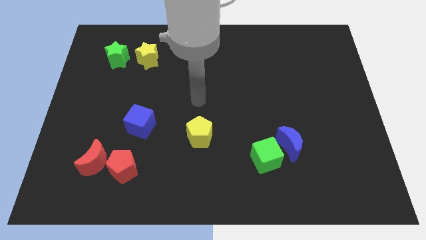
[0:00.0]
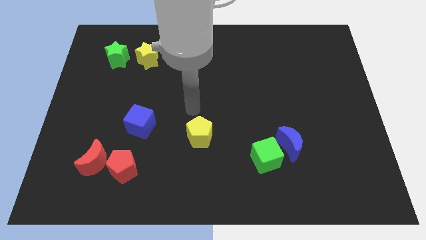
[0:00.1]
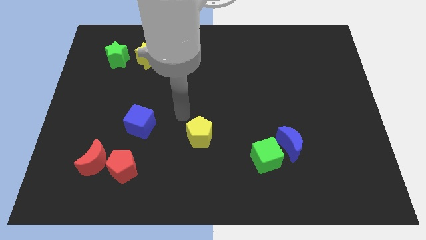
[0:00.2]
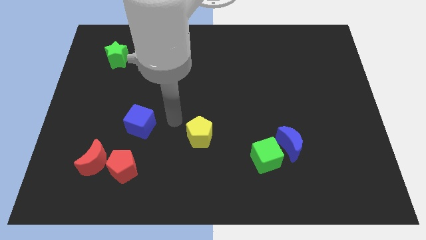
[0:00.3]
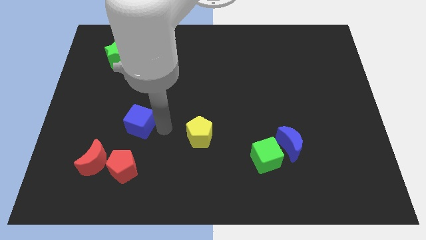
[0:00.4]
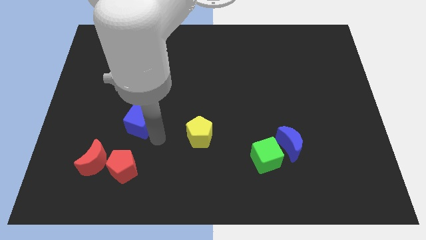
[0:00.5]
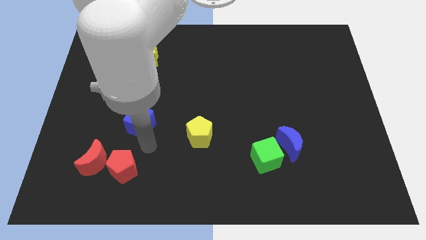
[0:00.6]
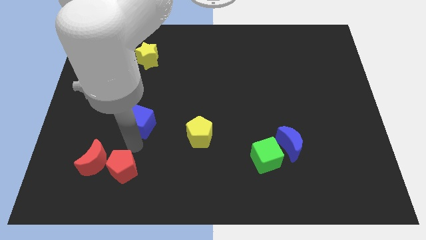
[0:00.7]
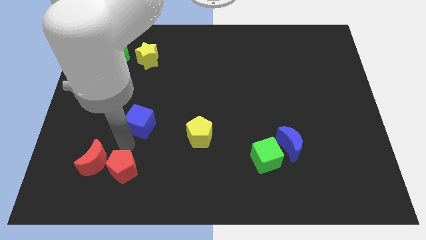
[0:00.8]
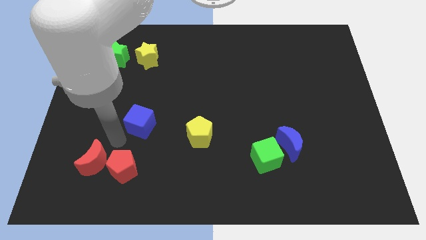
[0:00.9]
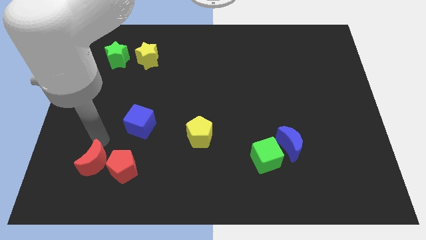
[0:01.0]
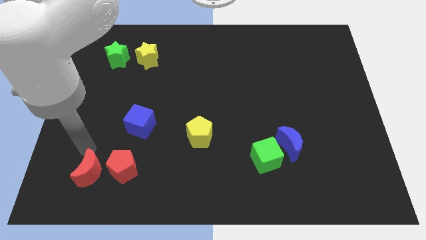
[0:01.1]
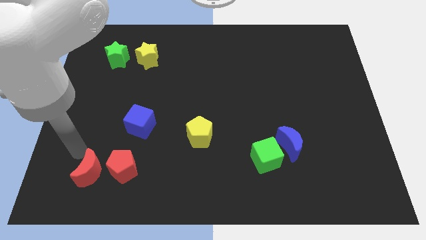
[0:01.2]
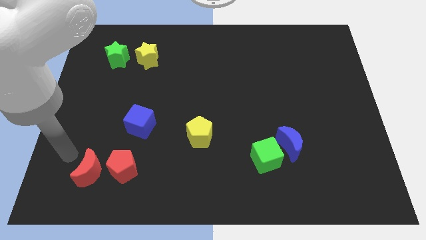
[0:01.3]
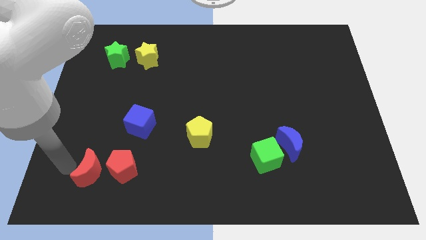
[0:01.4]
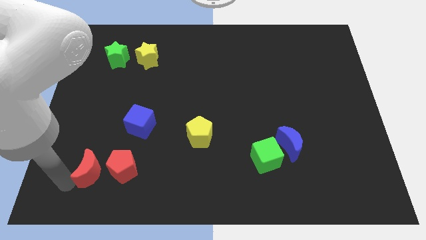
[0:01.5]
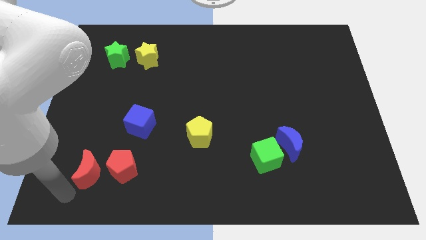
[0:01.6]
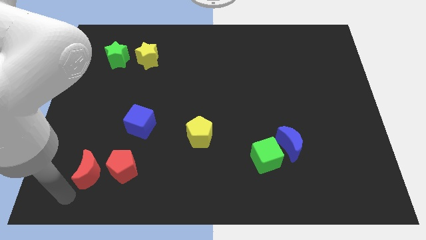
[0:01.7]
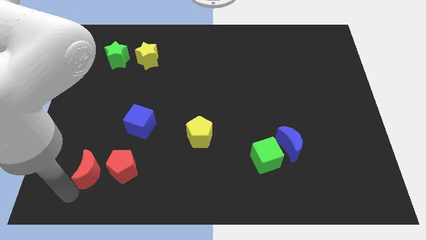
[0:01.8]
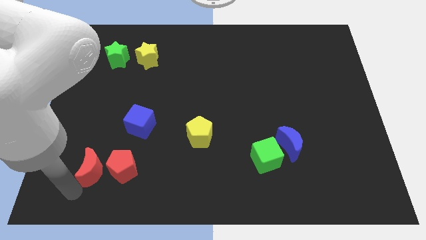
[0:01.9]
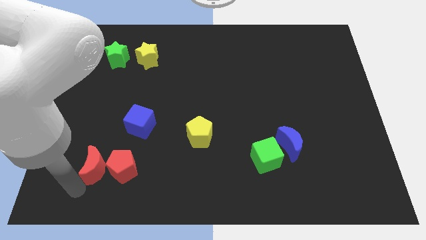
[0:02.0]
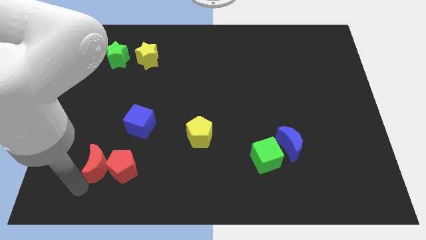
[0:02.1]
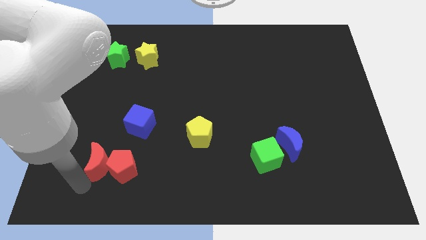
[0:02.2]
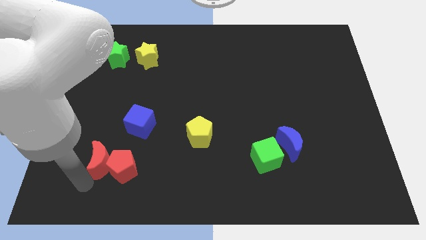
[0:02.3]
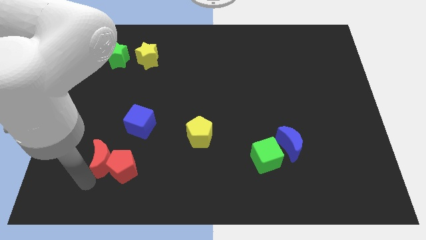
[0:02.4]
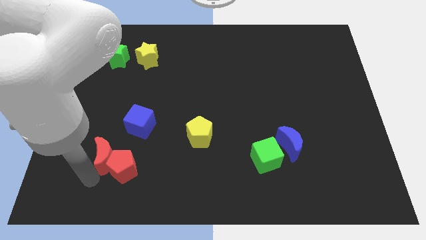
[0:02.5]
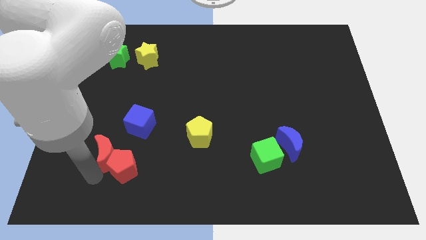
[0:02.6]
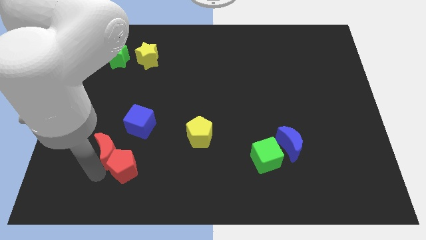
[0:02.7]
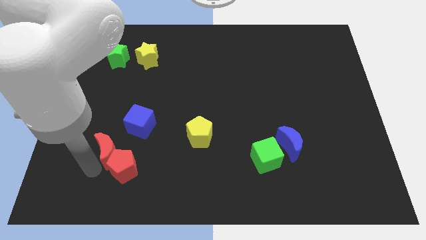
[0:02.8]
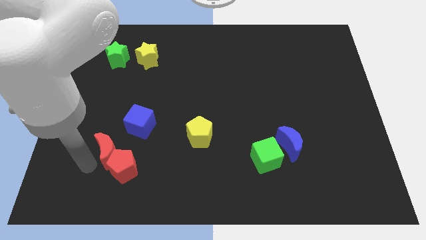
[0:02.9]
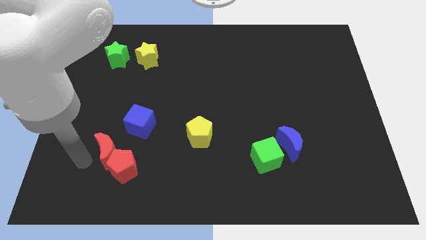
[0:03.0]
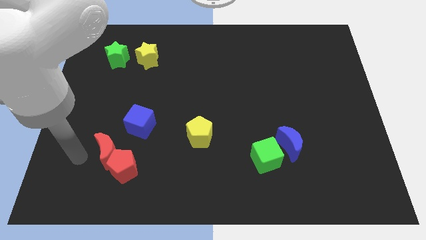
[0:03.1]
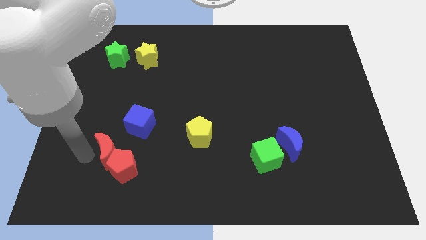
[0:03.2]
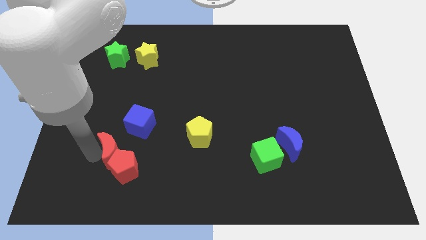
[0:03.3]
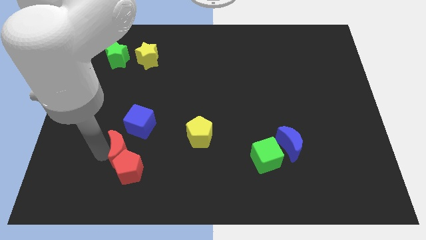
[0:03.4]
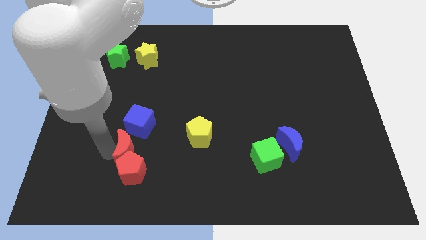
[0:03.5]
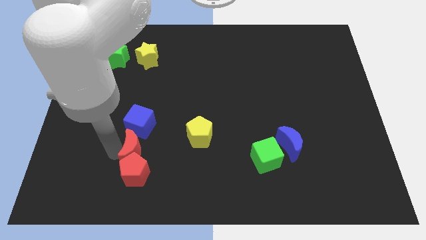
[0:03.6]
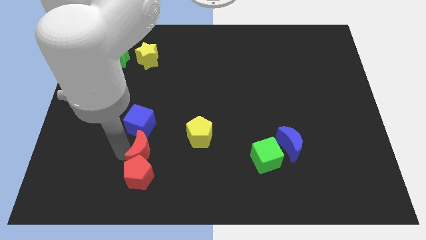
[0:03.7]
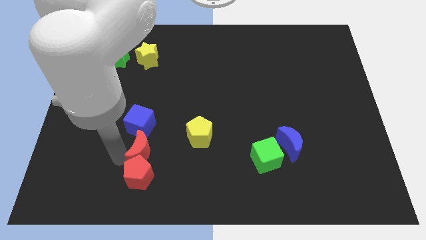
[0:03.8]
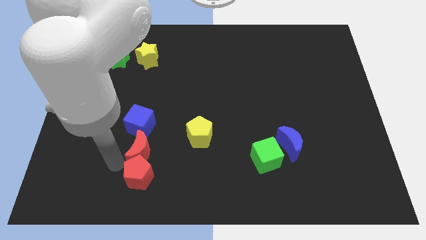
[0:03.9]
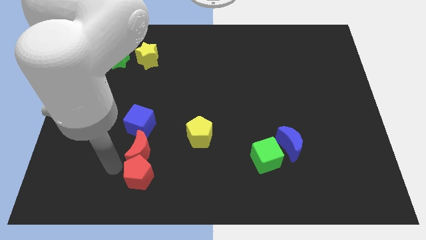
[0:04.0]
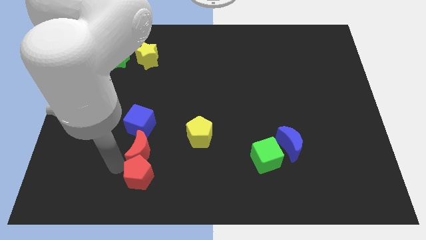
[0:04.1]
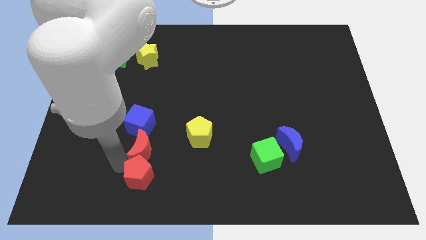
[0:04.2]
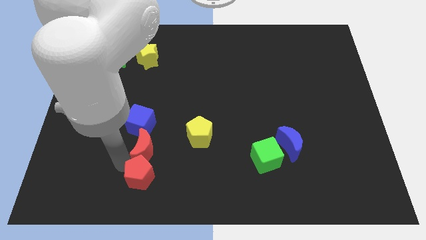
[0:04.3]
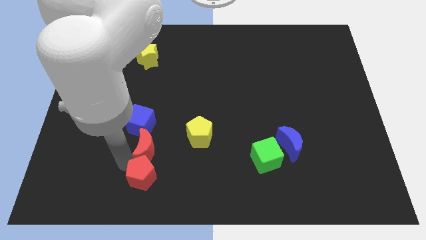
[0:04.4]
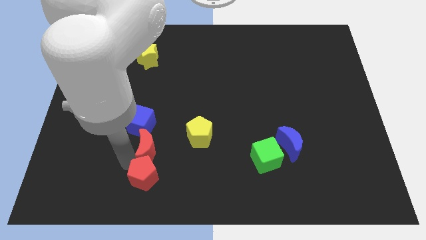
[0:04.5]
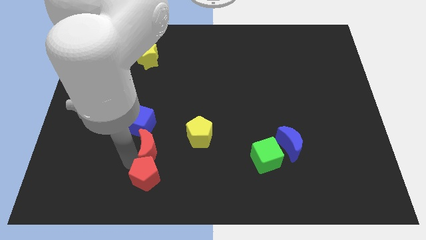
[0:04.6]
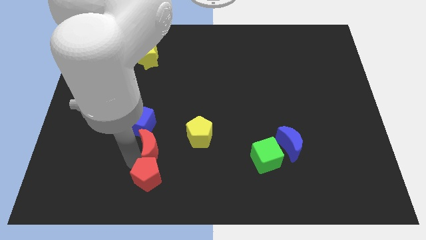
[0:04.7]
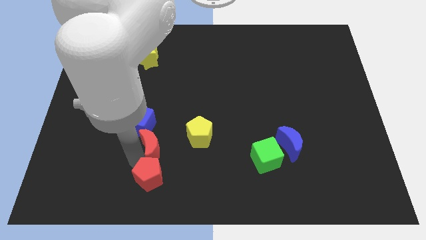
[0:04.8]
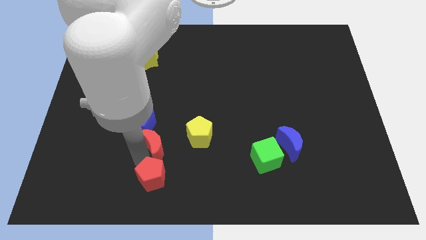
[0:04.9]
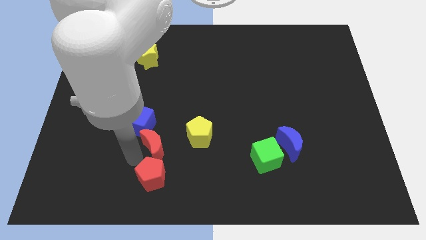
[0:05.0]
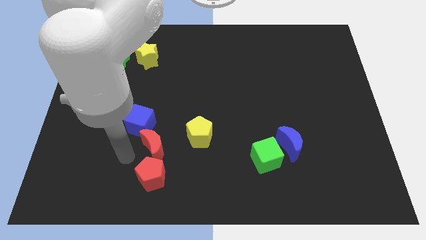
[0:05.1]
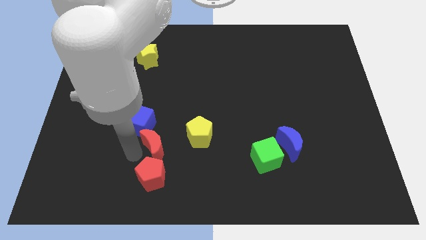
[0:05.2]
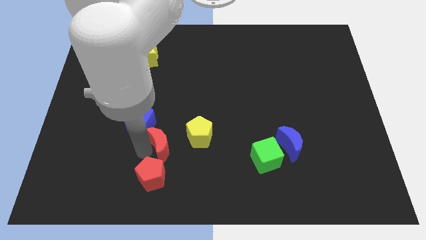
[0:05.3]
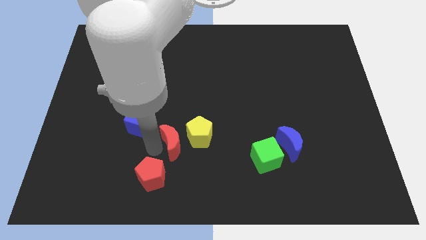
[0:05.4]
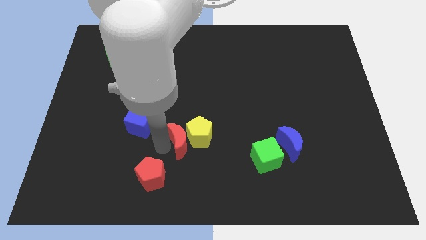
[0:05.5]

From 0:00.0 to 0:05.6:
push the red moon next to the yellow pentagon

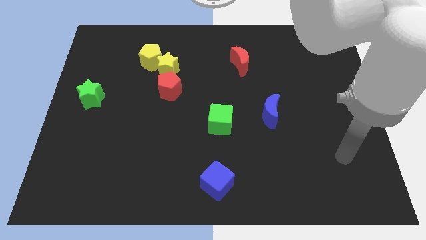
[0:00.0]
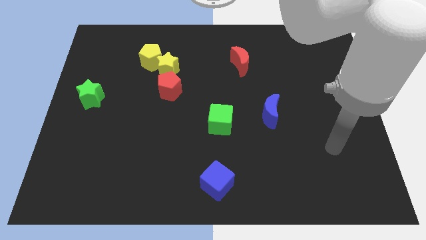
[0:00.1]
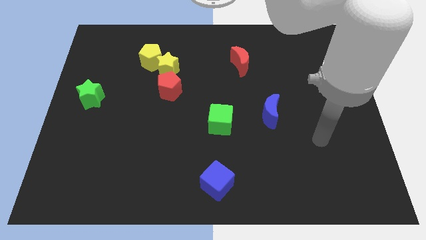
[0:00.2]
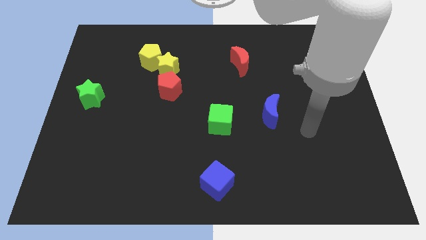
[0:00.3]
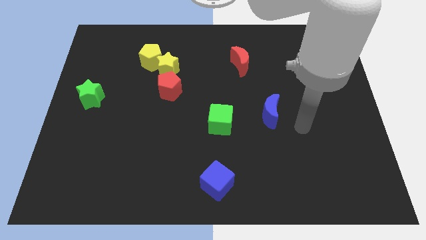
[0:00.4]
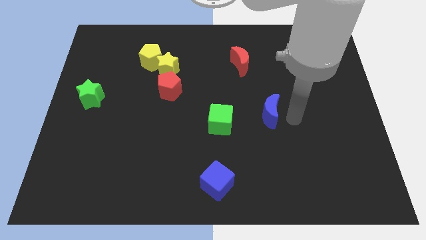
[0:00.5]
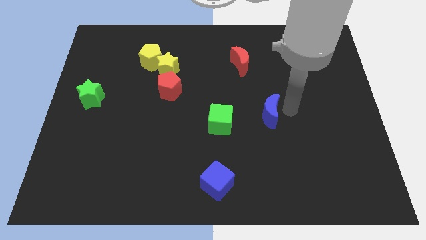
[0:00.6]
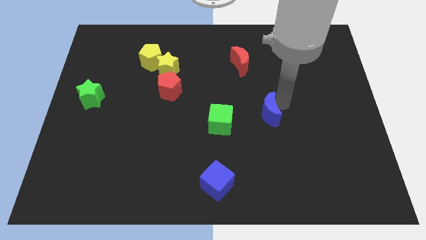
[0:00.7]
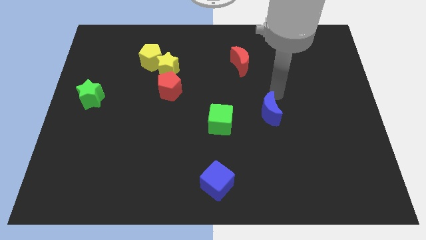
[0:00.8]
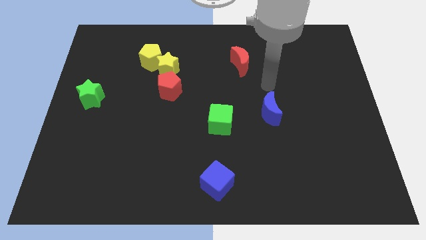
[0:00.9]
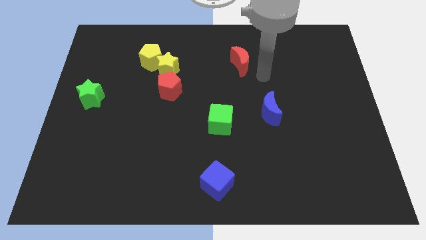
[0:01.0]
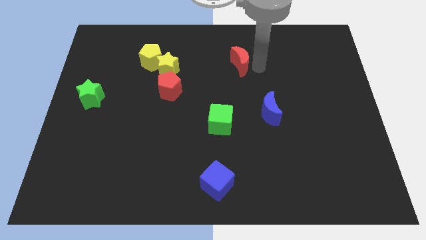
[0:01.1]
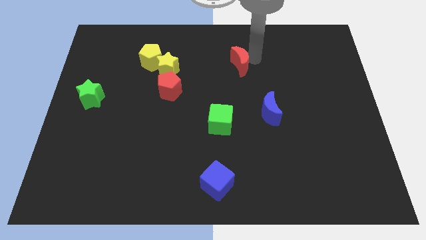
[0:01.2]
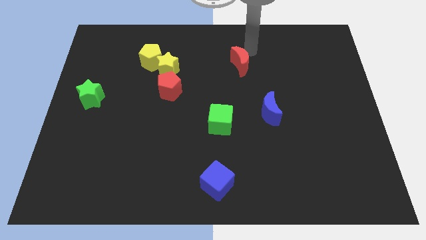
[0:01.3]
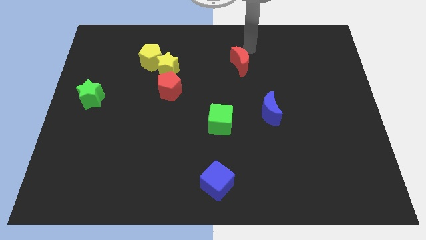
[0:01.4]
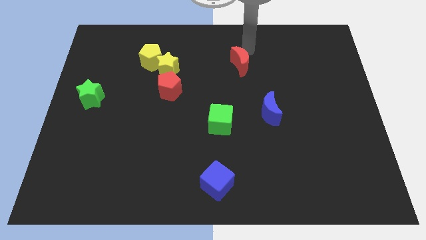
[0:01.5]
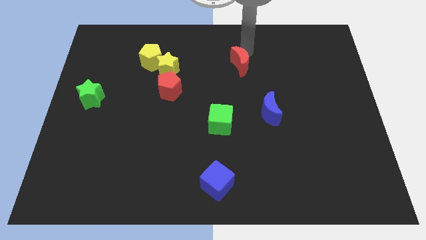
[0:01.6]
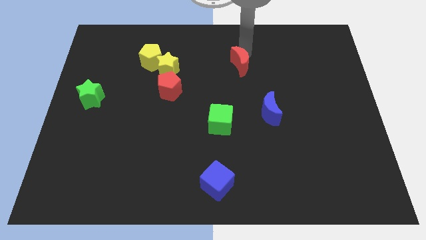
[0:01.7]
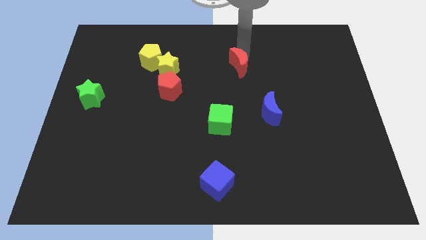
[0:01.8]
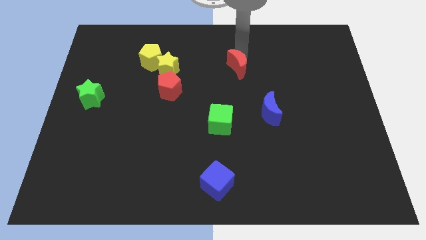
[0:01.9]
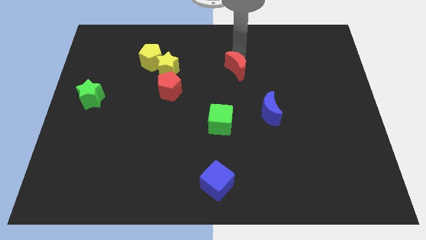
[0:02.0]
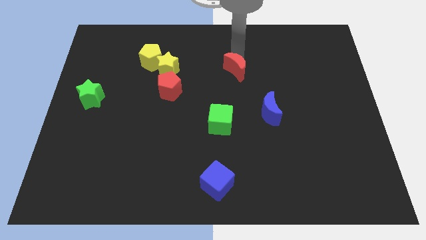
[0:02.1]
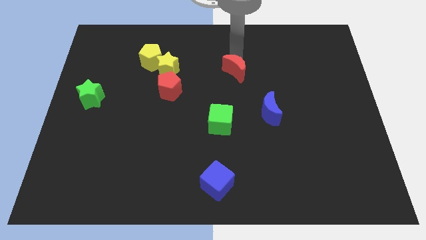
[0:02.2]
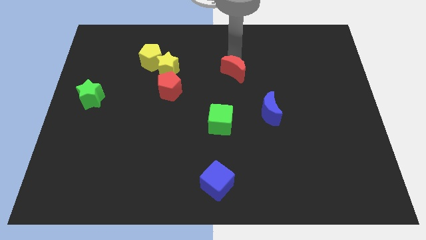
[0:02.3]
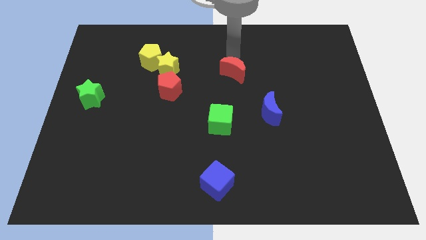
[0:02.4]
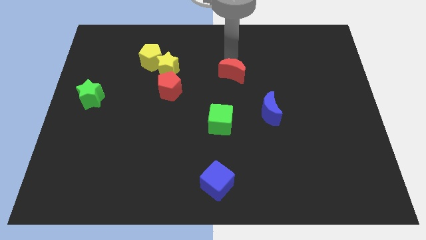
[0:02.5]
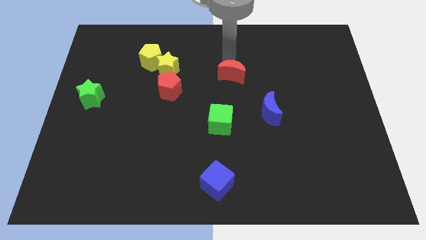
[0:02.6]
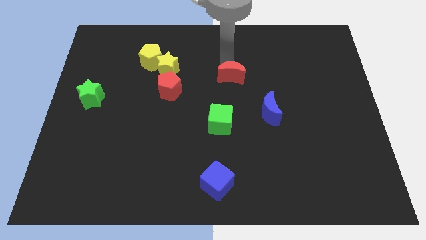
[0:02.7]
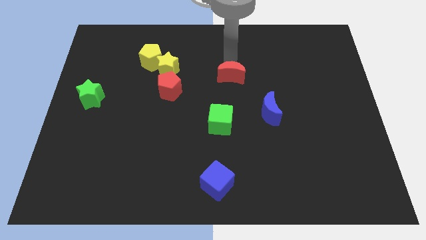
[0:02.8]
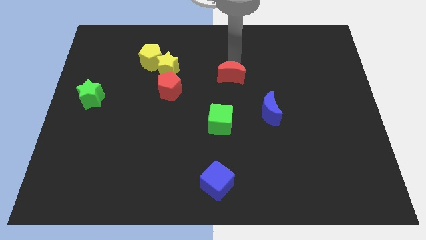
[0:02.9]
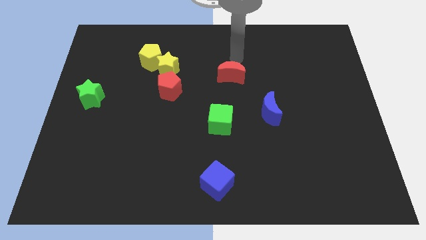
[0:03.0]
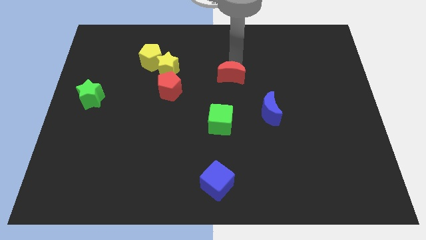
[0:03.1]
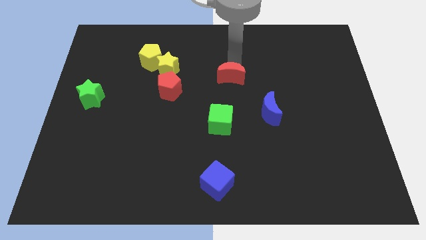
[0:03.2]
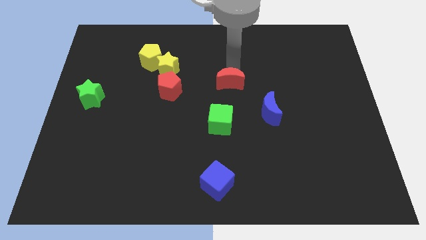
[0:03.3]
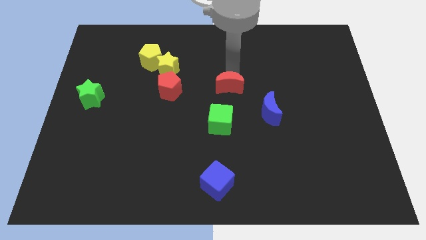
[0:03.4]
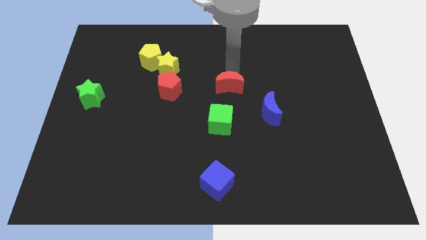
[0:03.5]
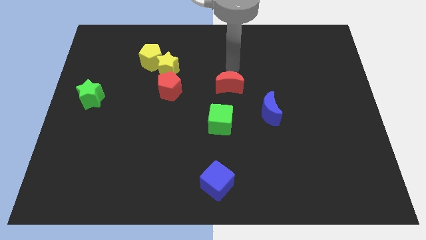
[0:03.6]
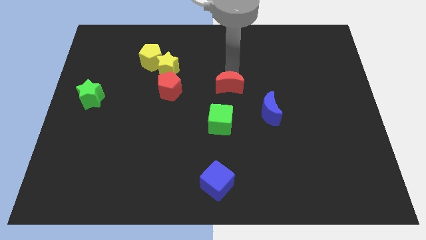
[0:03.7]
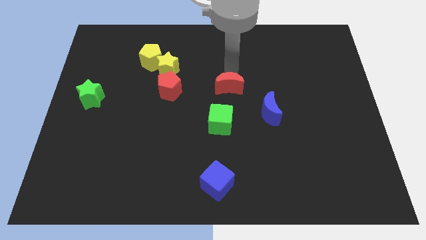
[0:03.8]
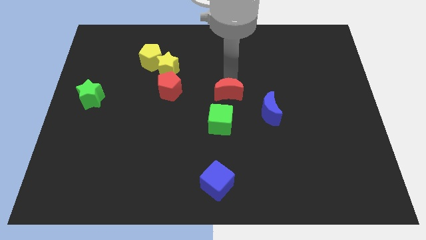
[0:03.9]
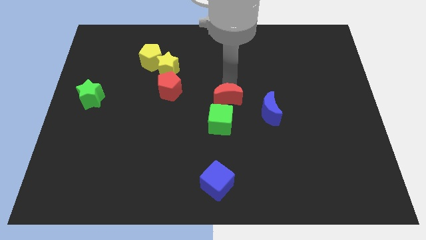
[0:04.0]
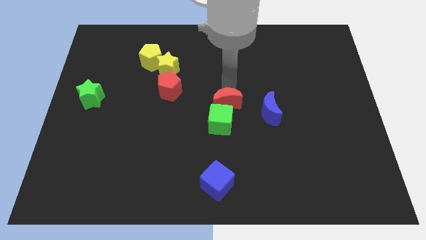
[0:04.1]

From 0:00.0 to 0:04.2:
put the red moon close to the green cube
